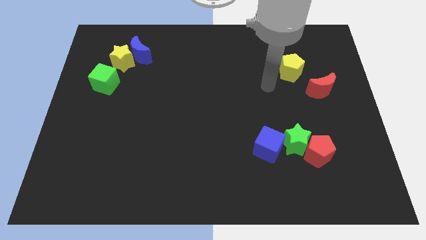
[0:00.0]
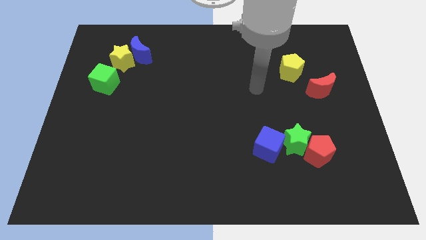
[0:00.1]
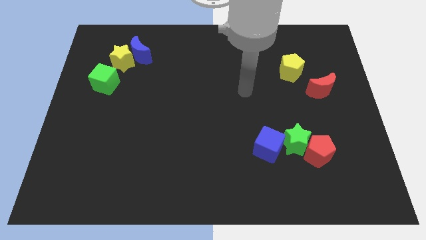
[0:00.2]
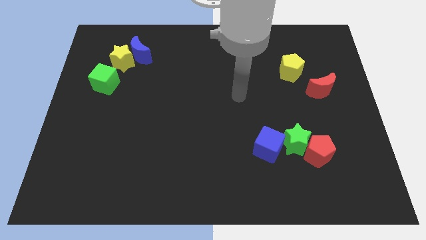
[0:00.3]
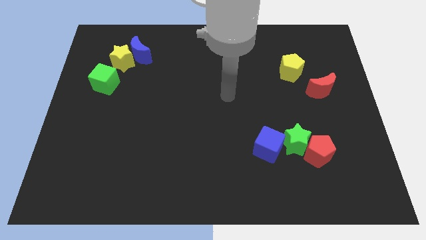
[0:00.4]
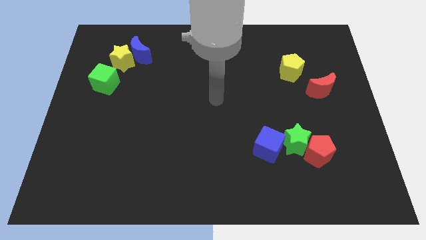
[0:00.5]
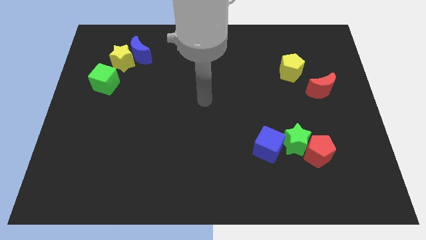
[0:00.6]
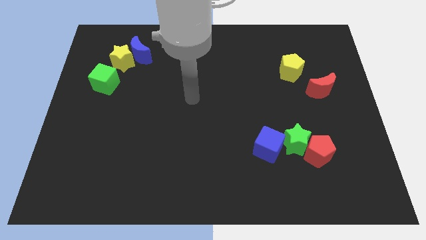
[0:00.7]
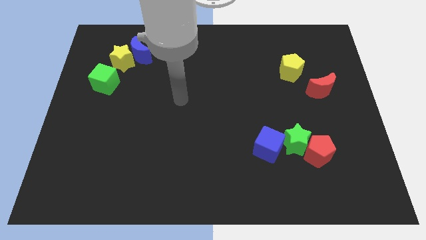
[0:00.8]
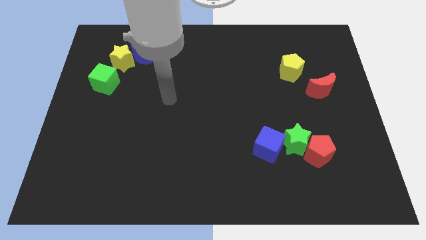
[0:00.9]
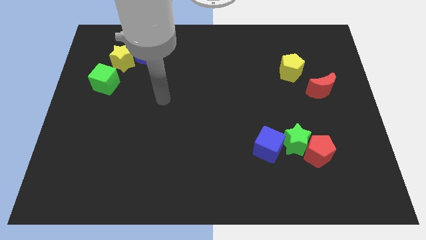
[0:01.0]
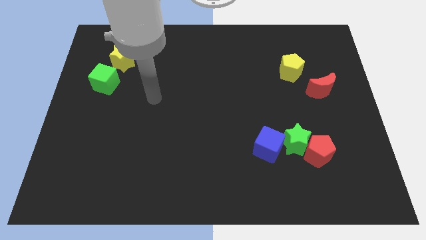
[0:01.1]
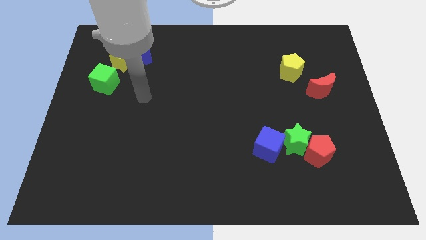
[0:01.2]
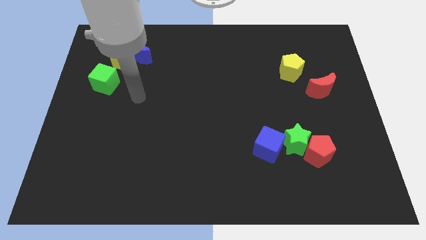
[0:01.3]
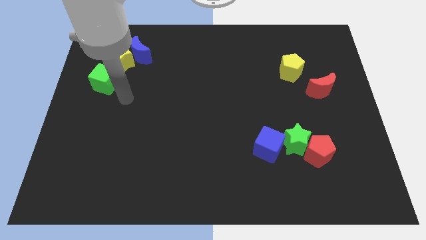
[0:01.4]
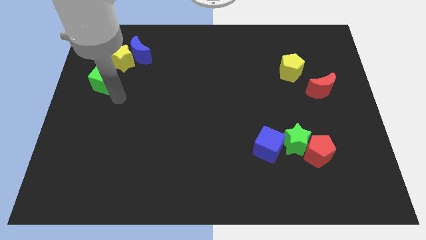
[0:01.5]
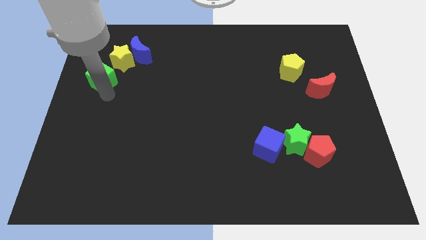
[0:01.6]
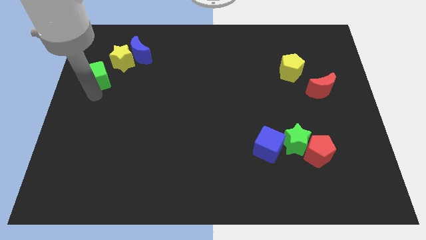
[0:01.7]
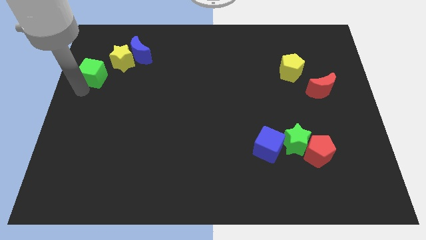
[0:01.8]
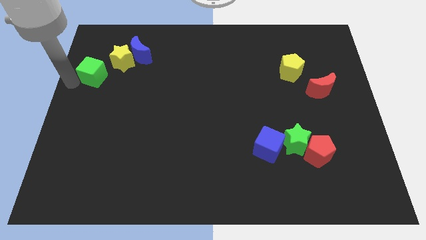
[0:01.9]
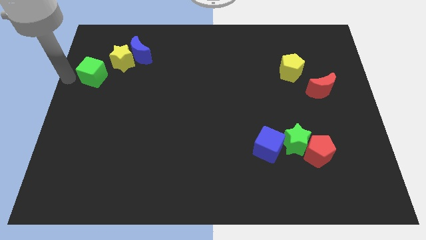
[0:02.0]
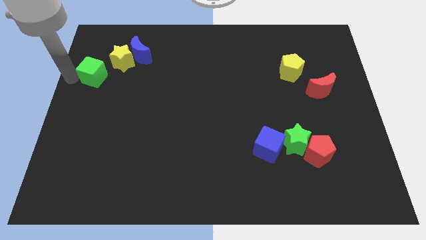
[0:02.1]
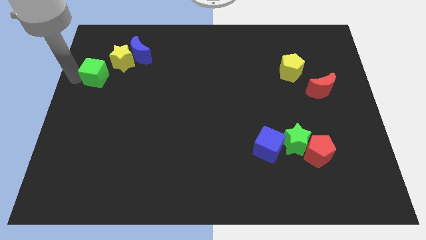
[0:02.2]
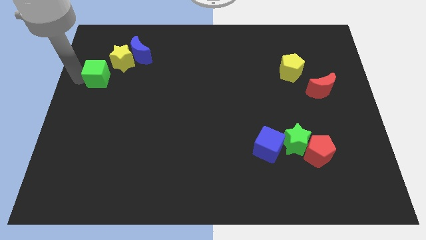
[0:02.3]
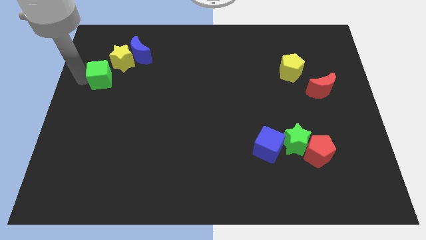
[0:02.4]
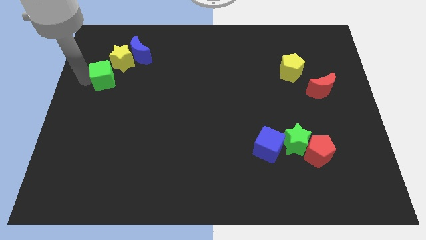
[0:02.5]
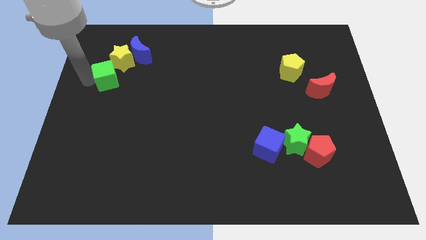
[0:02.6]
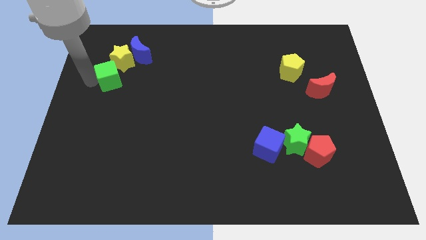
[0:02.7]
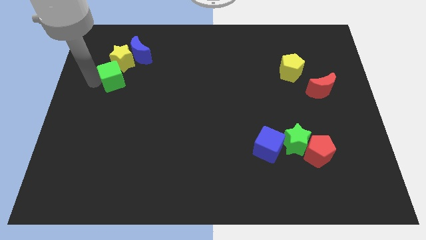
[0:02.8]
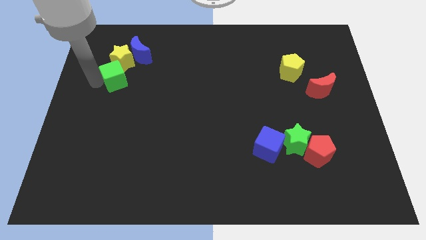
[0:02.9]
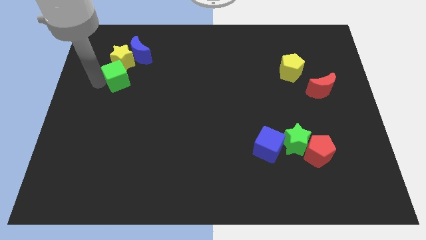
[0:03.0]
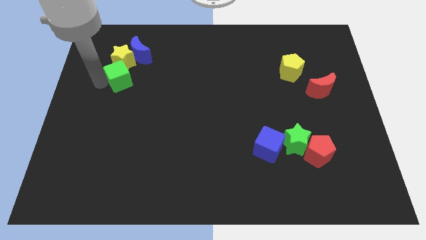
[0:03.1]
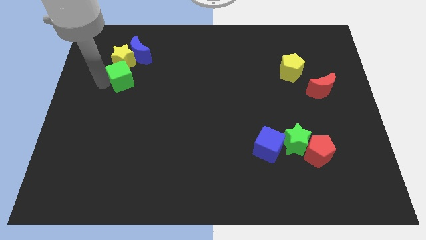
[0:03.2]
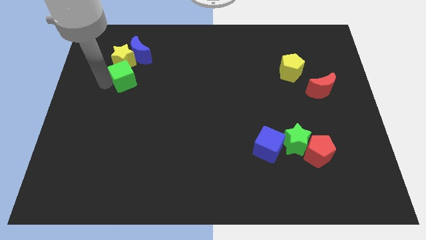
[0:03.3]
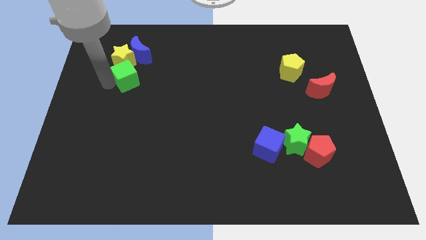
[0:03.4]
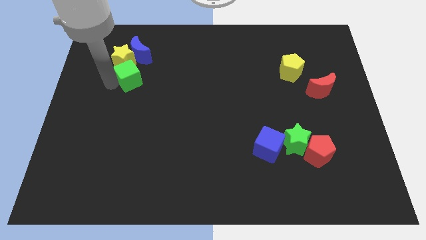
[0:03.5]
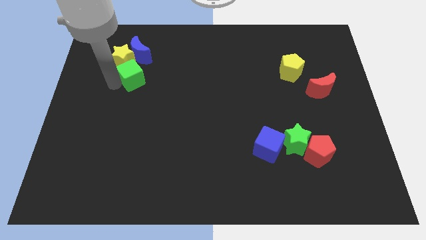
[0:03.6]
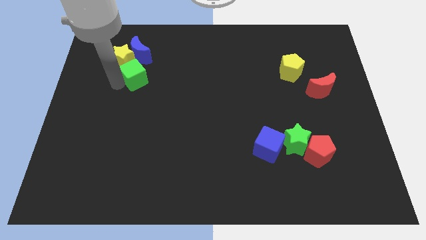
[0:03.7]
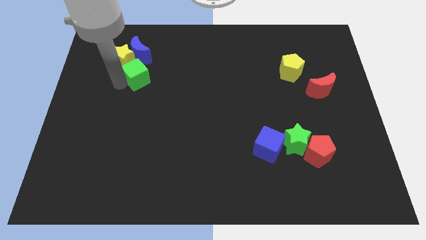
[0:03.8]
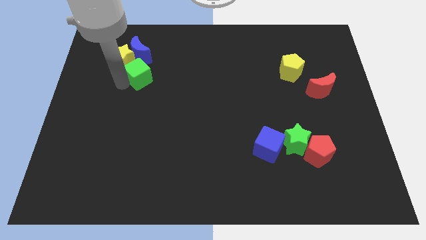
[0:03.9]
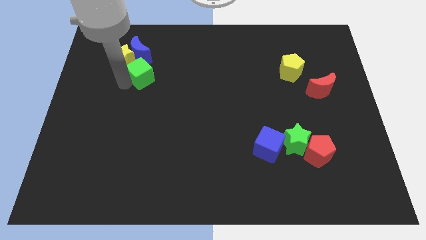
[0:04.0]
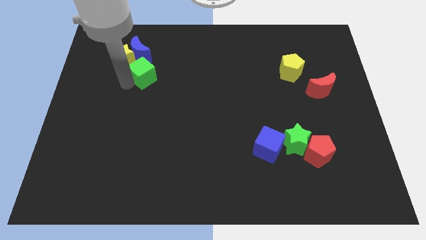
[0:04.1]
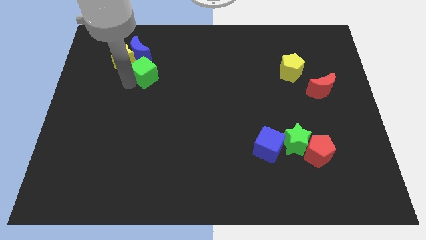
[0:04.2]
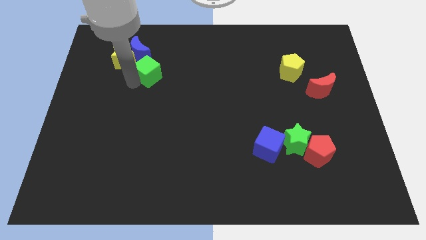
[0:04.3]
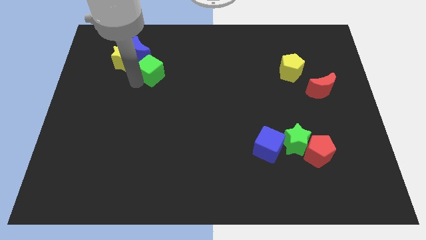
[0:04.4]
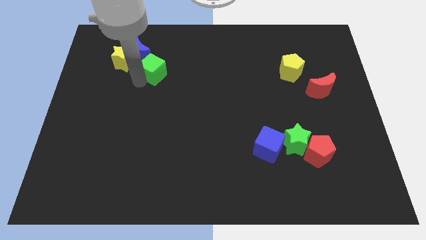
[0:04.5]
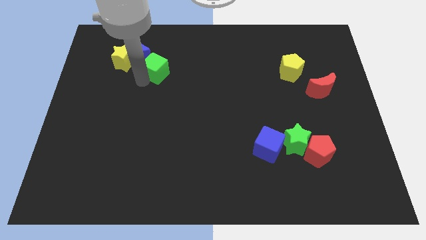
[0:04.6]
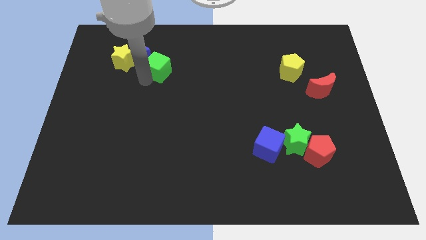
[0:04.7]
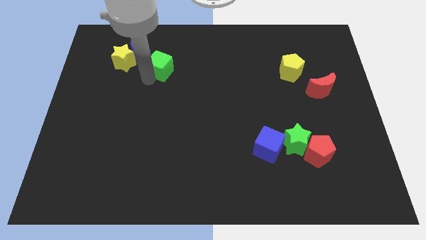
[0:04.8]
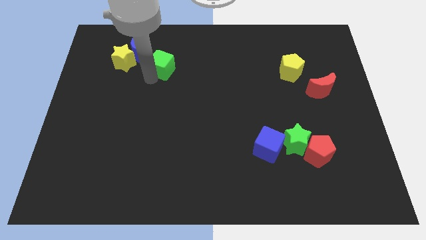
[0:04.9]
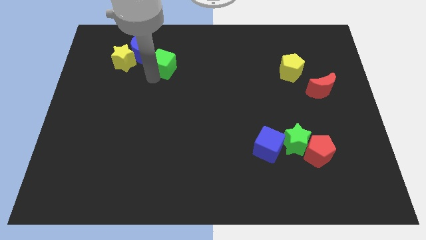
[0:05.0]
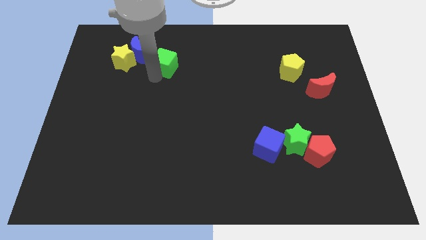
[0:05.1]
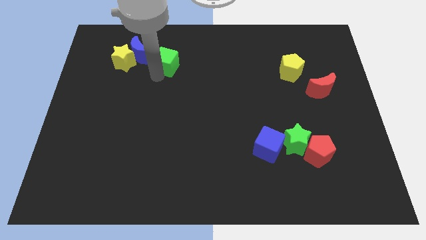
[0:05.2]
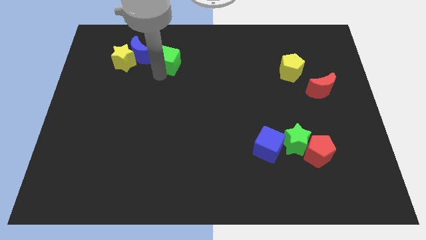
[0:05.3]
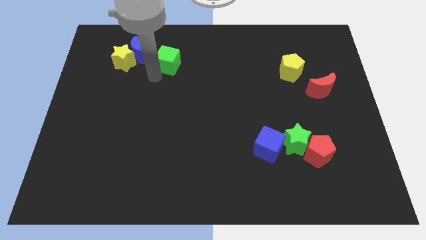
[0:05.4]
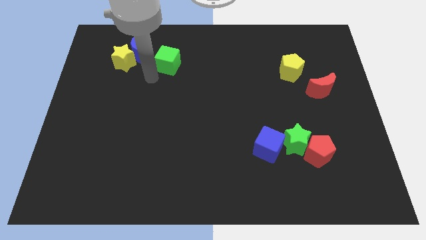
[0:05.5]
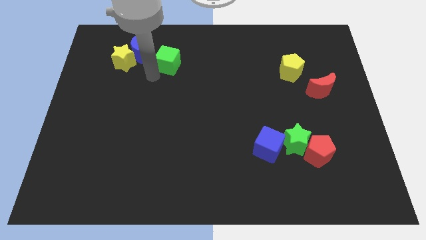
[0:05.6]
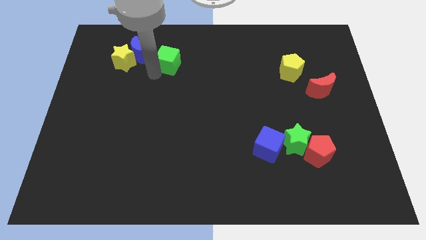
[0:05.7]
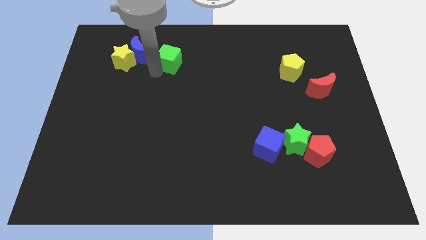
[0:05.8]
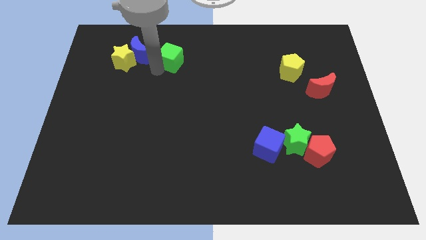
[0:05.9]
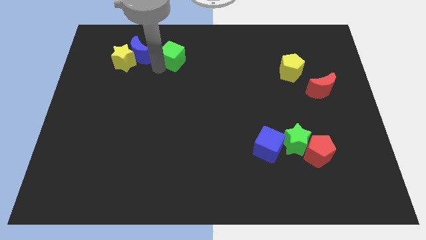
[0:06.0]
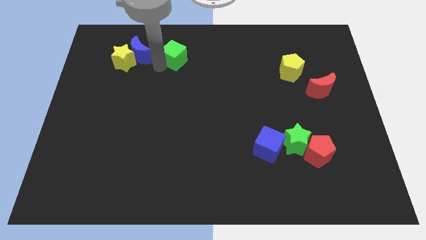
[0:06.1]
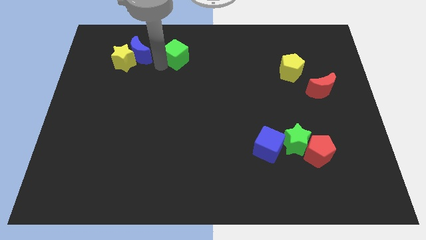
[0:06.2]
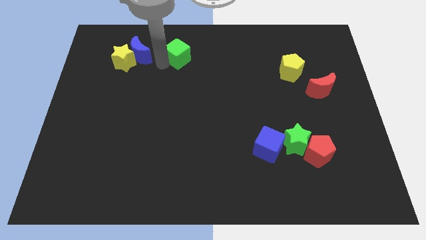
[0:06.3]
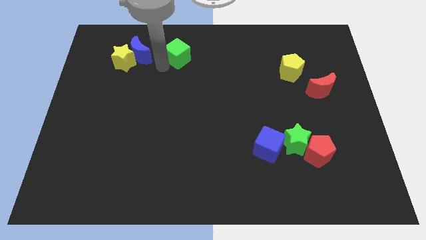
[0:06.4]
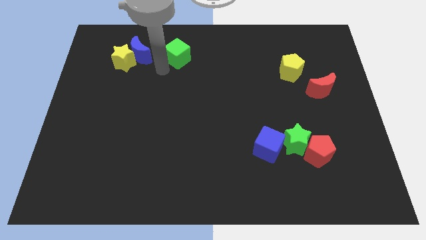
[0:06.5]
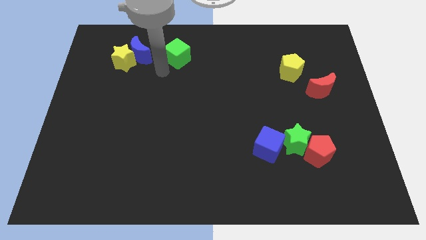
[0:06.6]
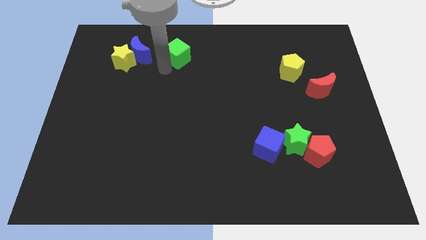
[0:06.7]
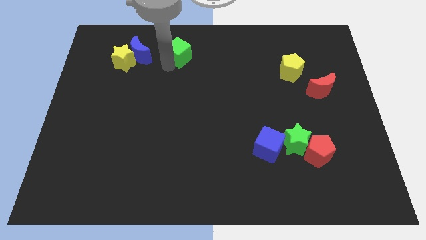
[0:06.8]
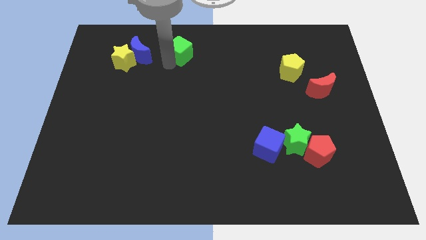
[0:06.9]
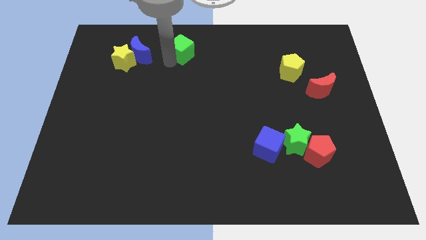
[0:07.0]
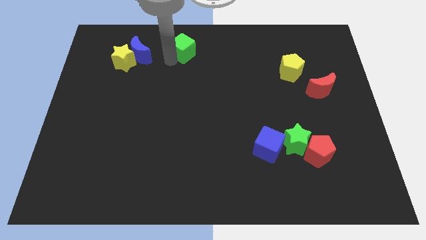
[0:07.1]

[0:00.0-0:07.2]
push the green cube to the top
